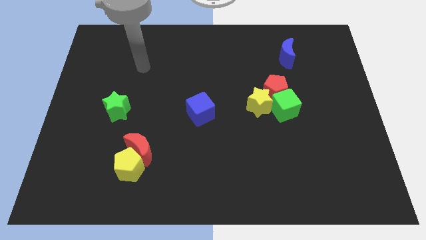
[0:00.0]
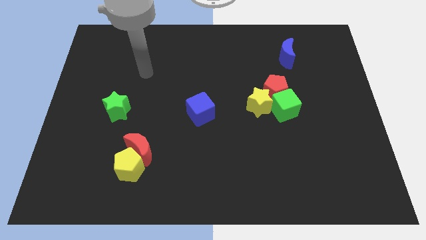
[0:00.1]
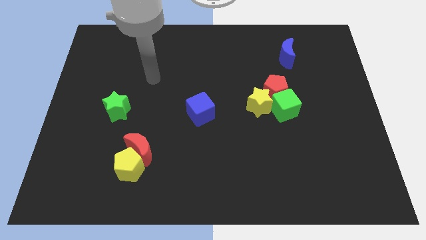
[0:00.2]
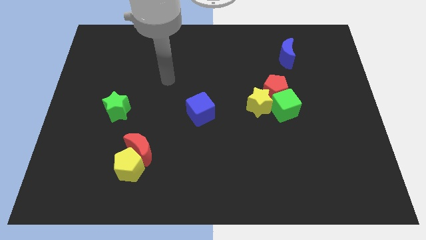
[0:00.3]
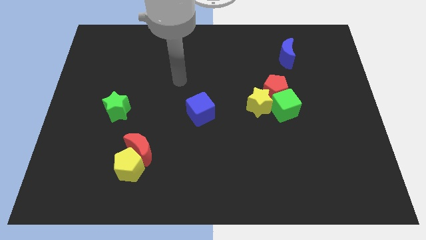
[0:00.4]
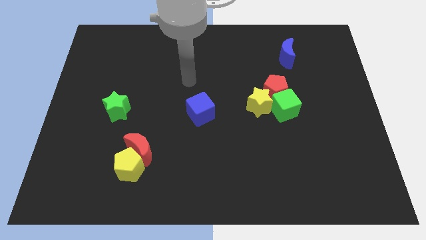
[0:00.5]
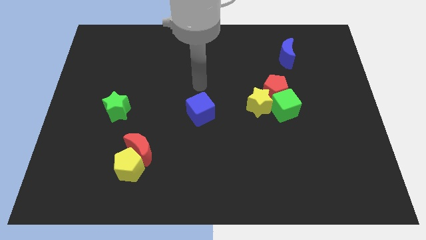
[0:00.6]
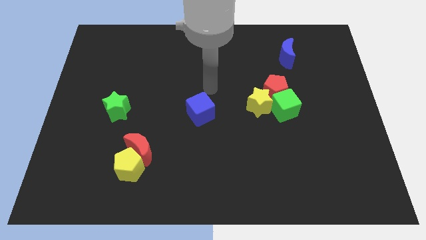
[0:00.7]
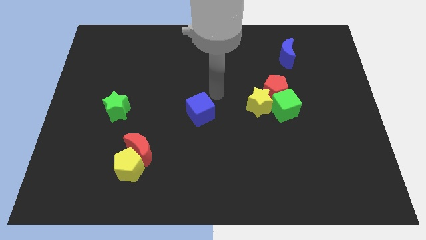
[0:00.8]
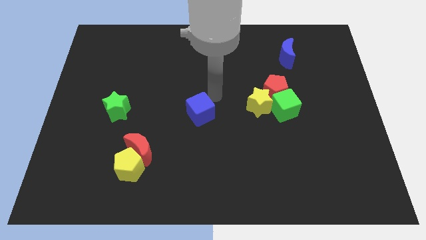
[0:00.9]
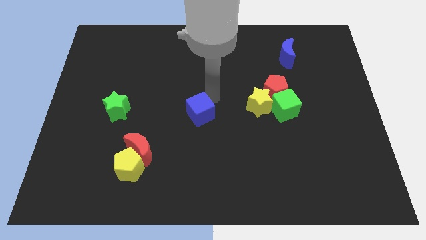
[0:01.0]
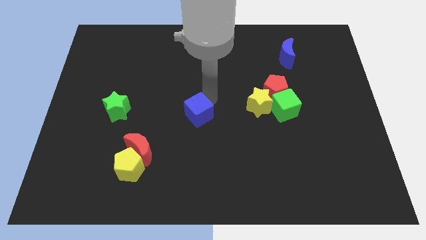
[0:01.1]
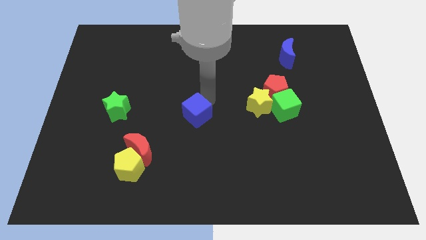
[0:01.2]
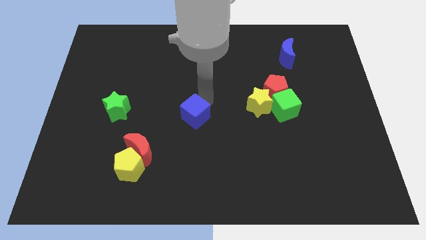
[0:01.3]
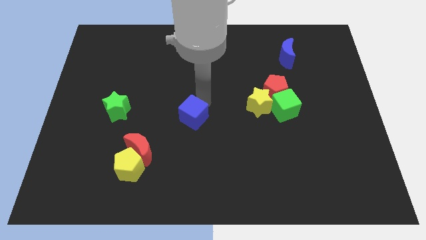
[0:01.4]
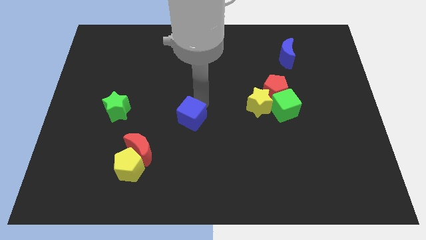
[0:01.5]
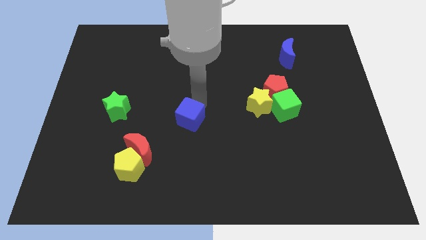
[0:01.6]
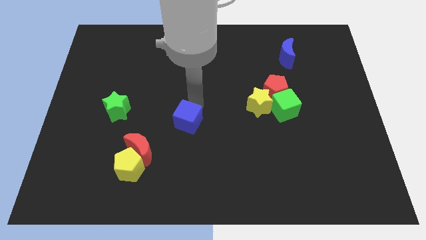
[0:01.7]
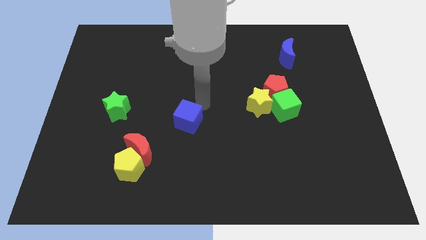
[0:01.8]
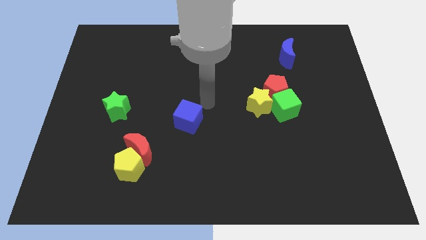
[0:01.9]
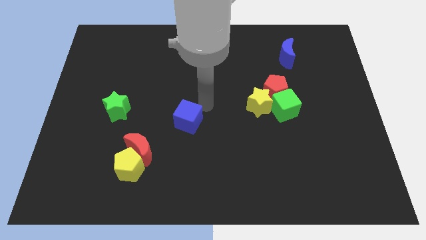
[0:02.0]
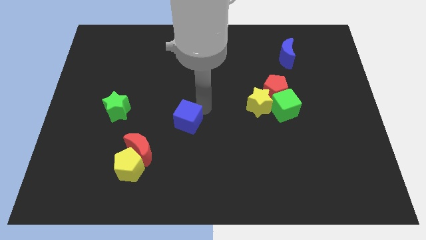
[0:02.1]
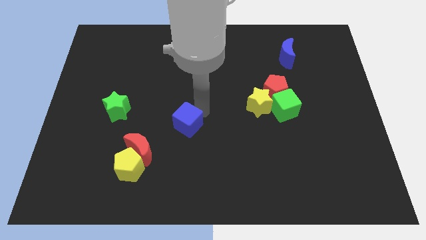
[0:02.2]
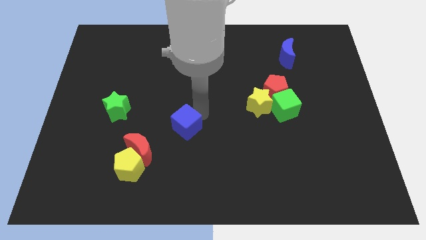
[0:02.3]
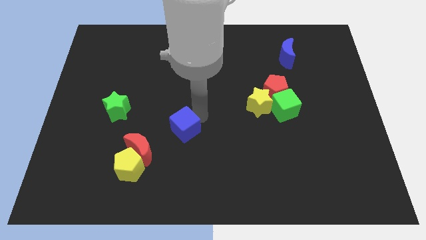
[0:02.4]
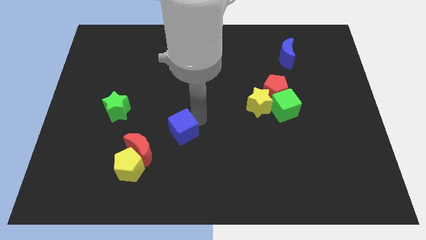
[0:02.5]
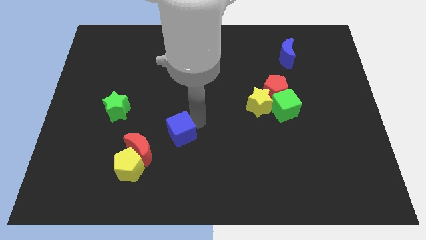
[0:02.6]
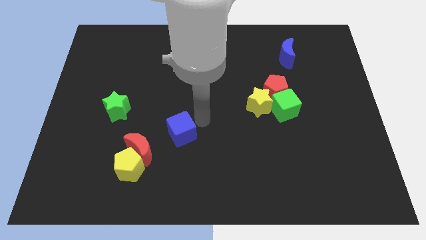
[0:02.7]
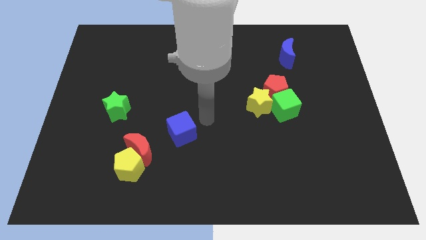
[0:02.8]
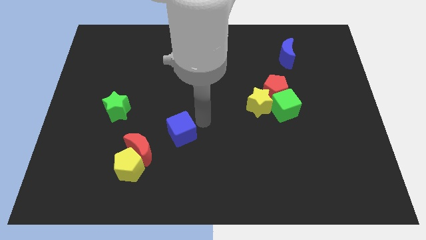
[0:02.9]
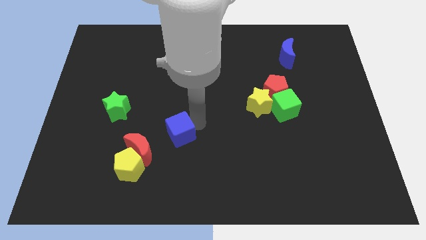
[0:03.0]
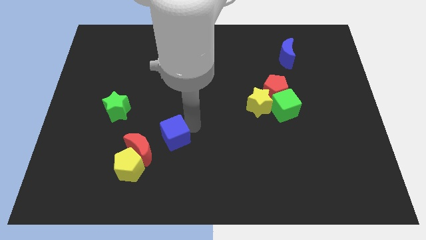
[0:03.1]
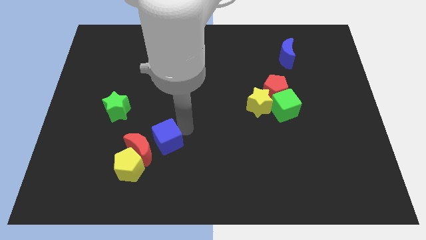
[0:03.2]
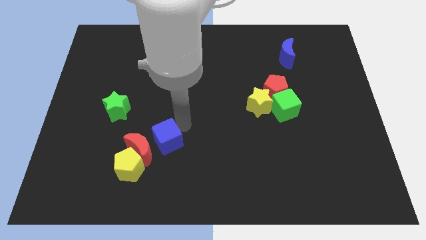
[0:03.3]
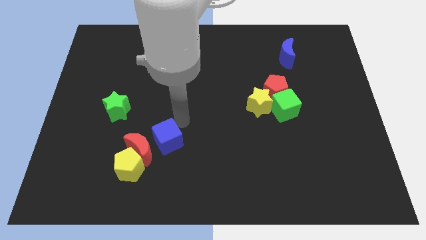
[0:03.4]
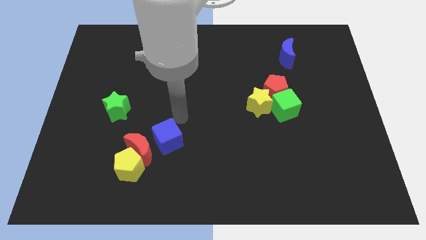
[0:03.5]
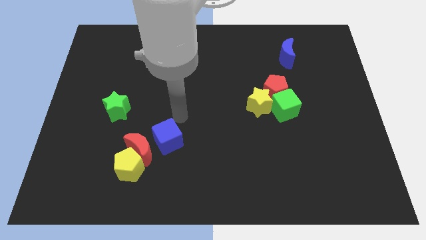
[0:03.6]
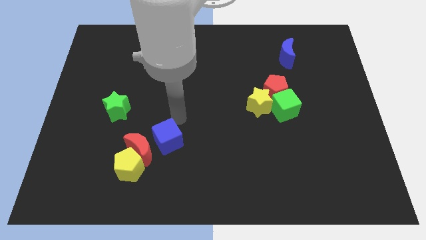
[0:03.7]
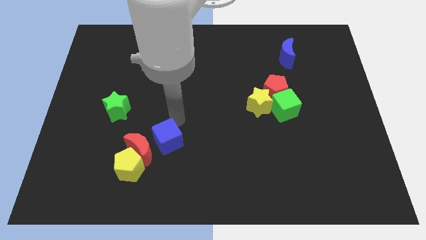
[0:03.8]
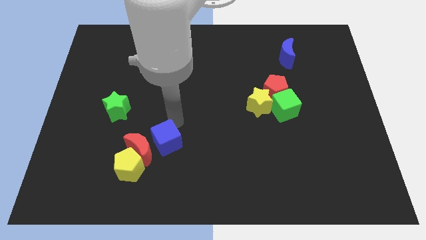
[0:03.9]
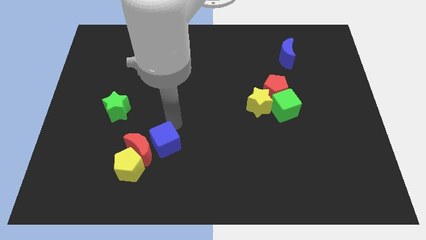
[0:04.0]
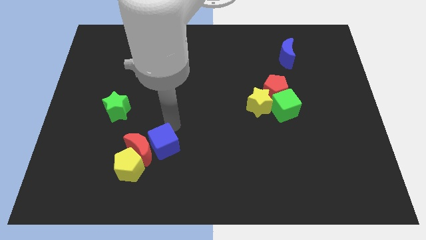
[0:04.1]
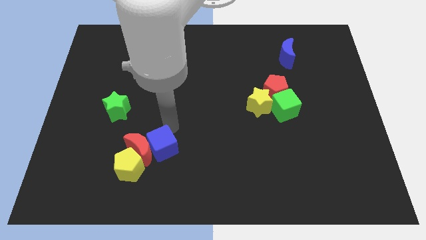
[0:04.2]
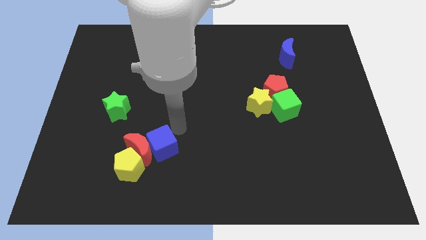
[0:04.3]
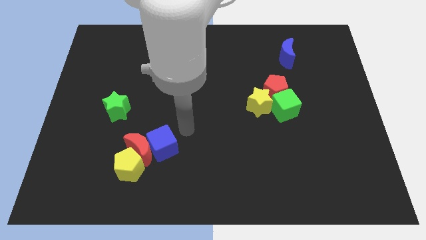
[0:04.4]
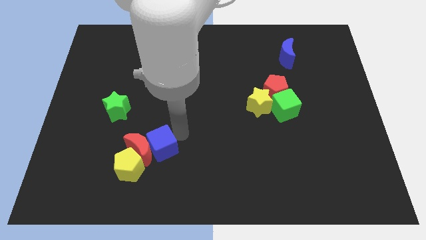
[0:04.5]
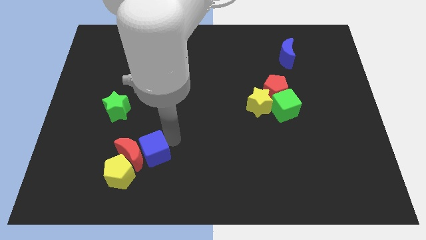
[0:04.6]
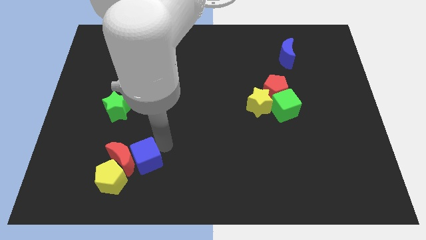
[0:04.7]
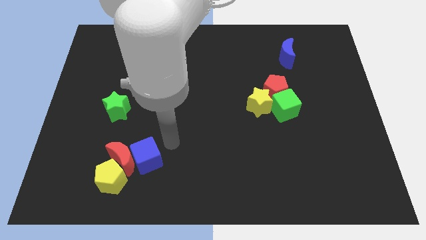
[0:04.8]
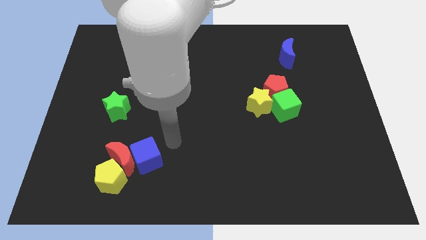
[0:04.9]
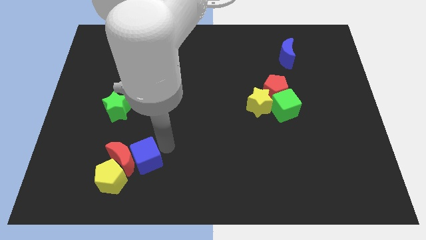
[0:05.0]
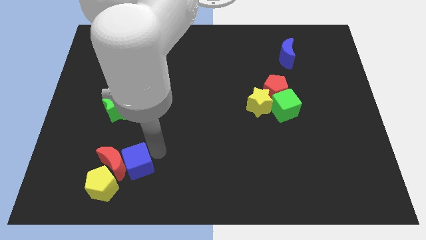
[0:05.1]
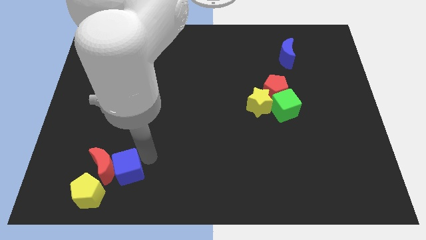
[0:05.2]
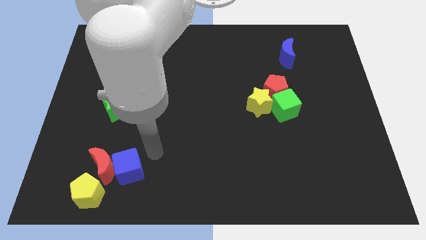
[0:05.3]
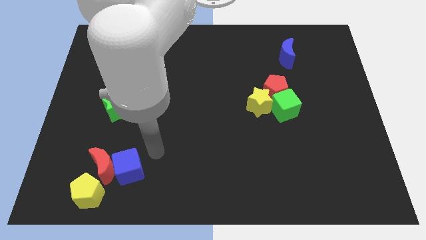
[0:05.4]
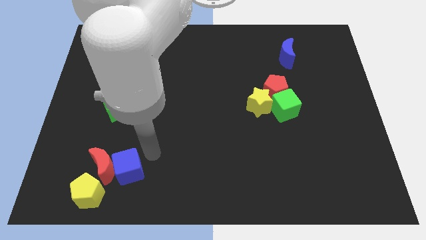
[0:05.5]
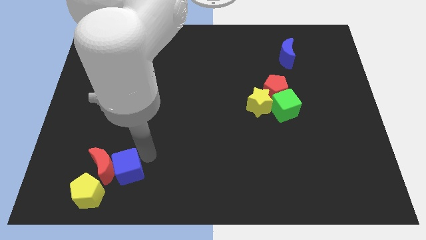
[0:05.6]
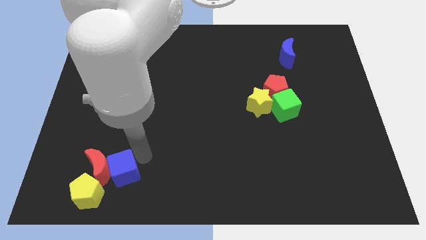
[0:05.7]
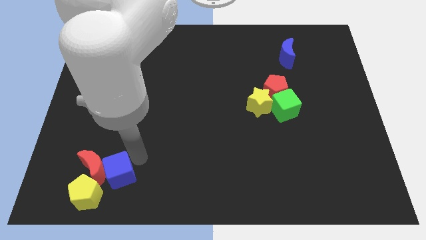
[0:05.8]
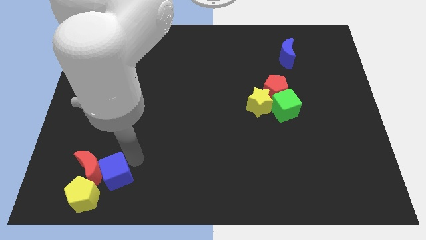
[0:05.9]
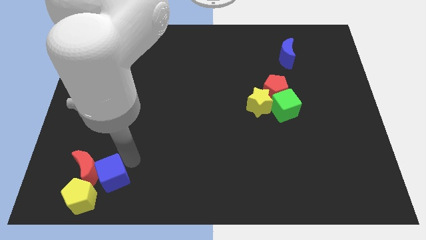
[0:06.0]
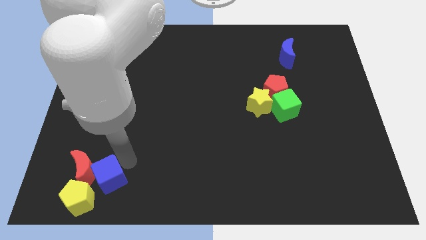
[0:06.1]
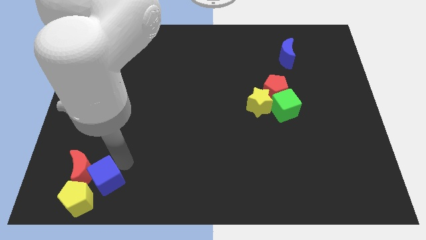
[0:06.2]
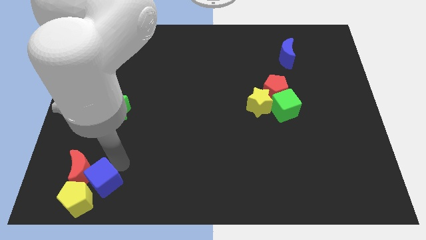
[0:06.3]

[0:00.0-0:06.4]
move the blue cube to the yellow pentagon
